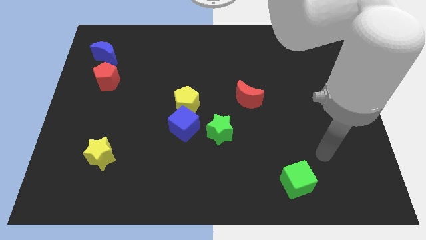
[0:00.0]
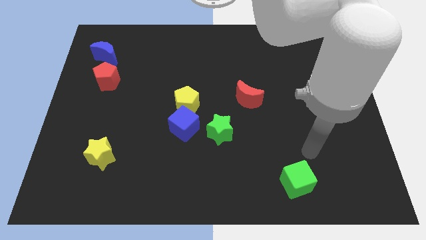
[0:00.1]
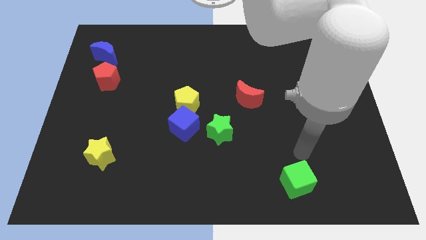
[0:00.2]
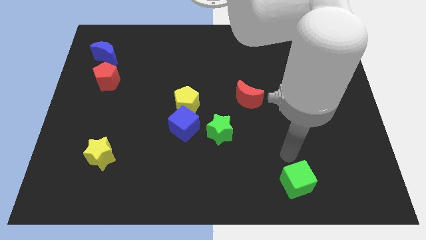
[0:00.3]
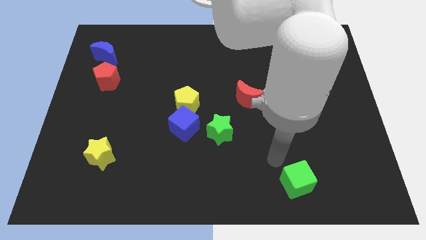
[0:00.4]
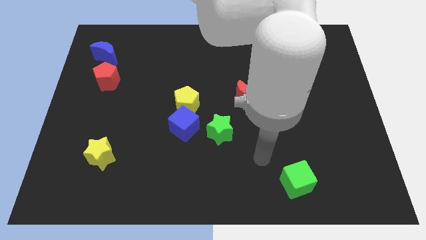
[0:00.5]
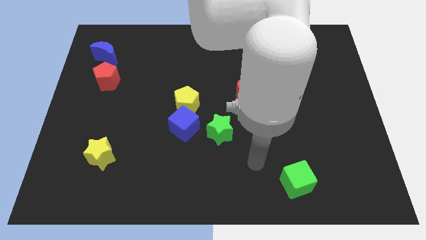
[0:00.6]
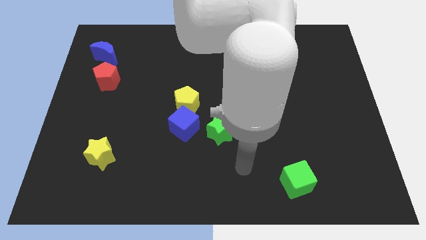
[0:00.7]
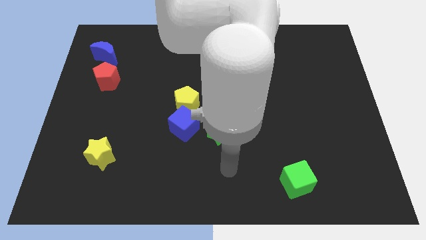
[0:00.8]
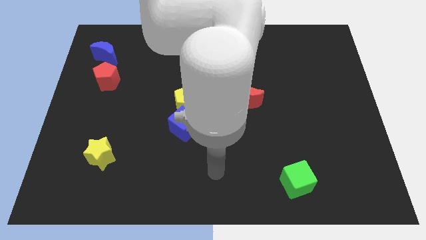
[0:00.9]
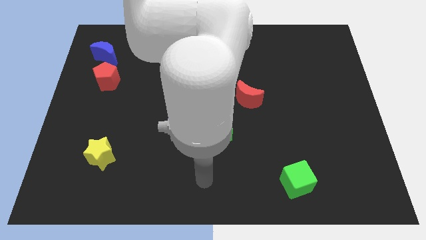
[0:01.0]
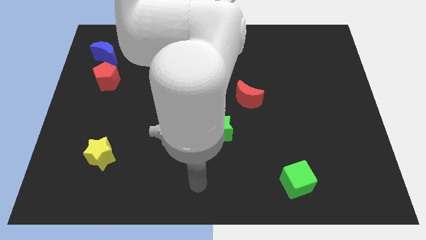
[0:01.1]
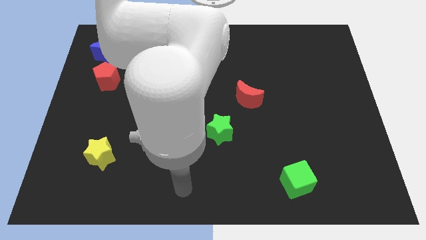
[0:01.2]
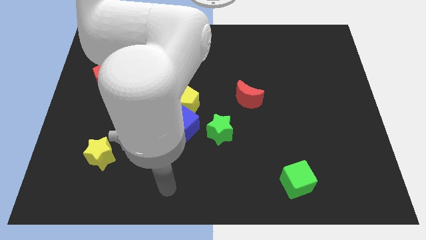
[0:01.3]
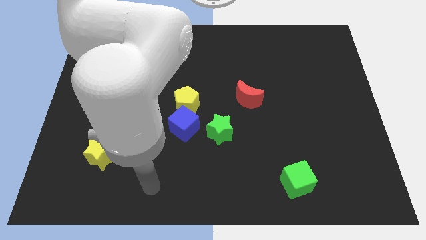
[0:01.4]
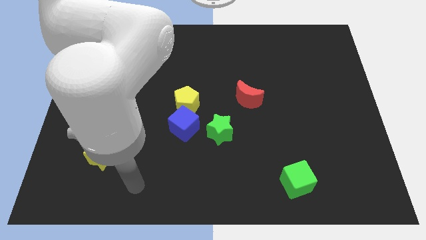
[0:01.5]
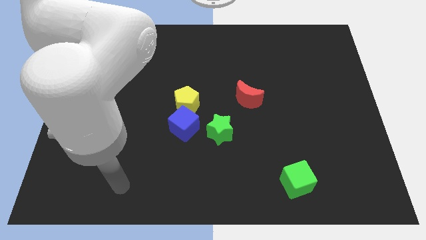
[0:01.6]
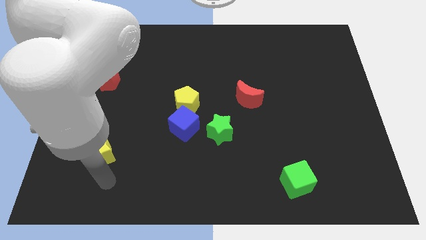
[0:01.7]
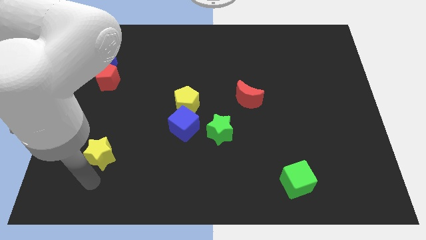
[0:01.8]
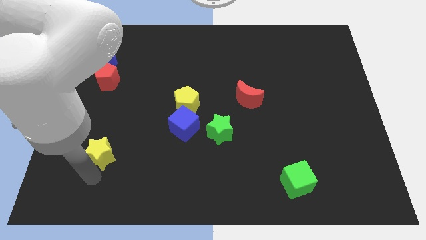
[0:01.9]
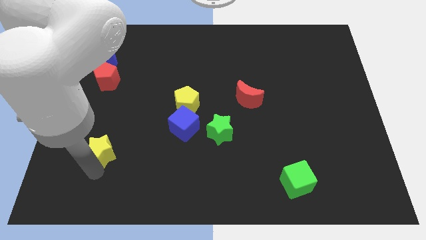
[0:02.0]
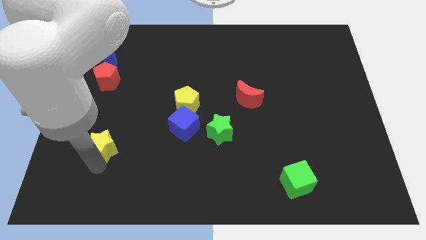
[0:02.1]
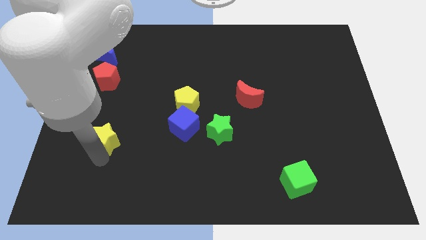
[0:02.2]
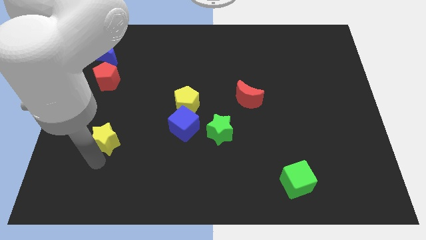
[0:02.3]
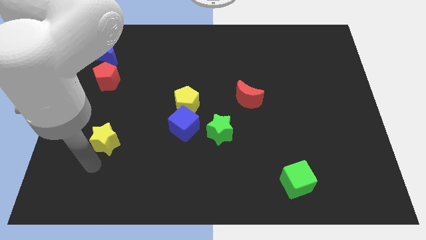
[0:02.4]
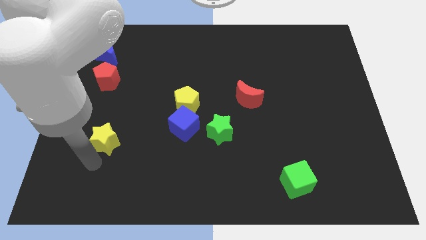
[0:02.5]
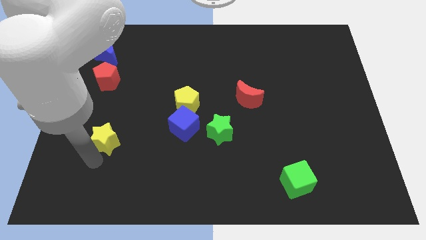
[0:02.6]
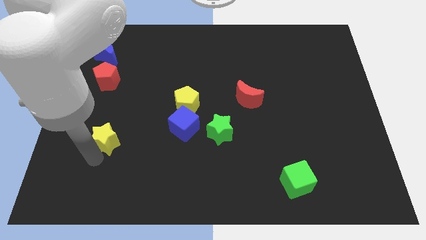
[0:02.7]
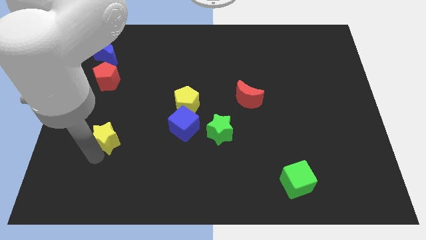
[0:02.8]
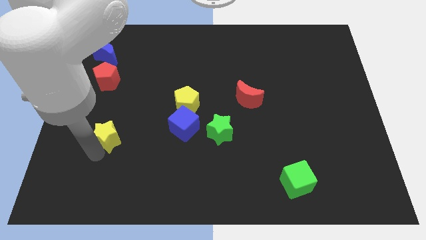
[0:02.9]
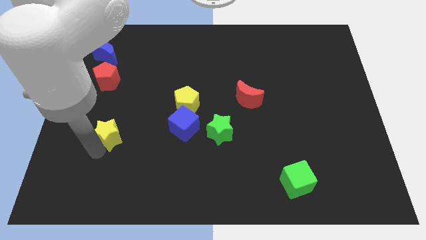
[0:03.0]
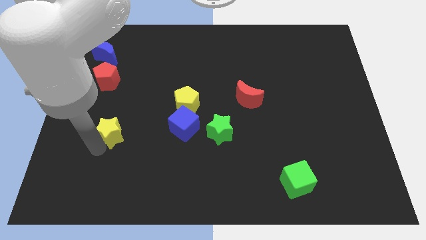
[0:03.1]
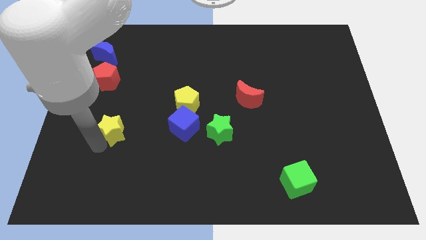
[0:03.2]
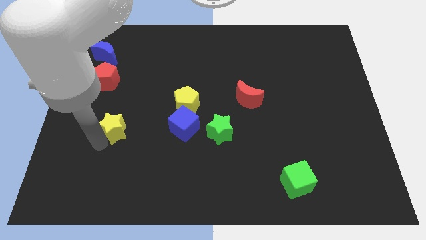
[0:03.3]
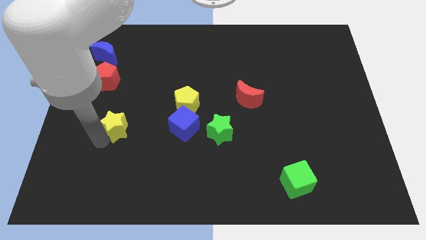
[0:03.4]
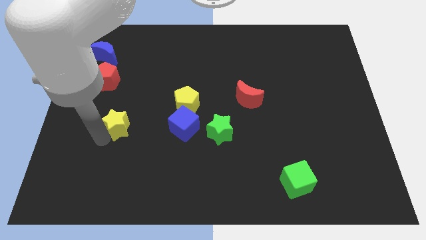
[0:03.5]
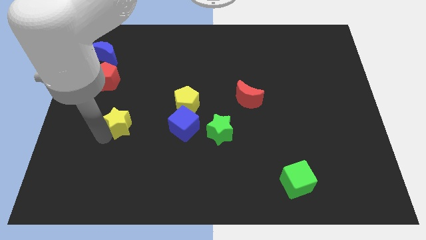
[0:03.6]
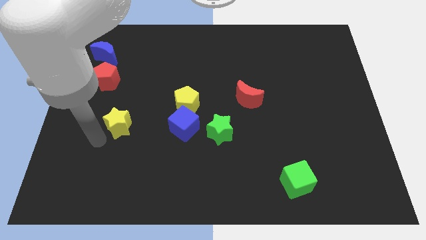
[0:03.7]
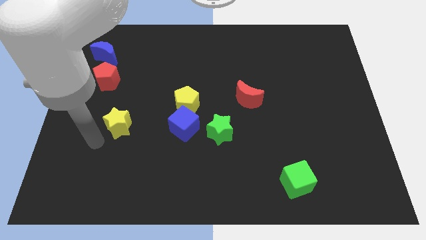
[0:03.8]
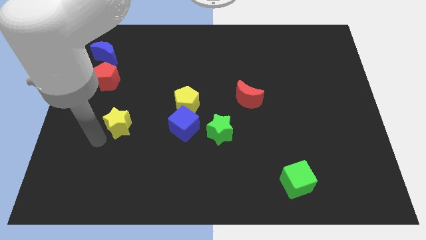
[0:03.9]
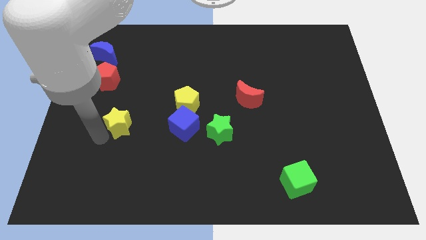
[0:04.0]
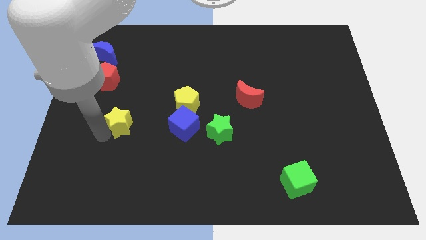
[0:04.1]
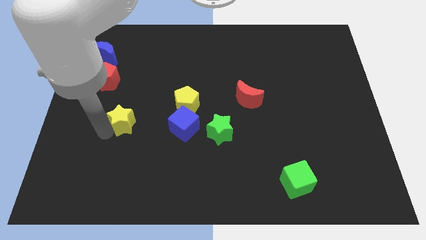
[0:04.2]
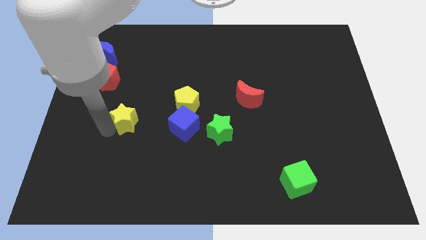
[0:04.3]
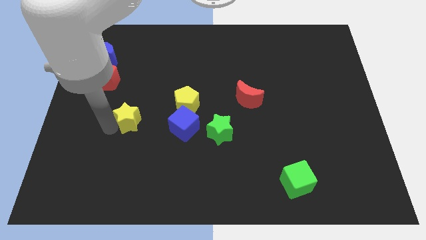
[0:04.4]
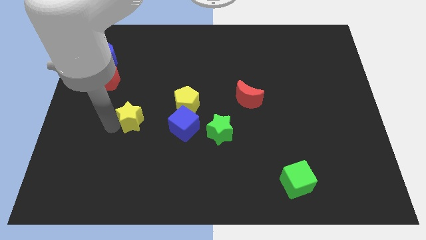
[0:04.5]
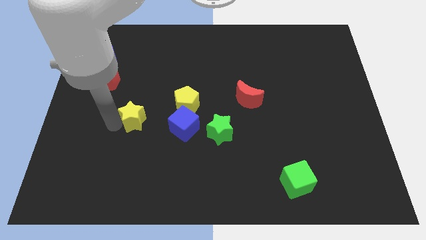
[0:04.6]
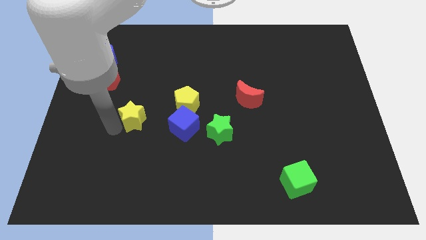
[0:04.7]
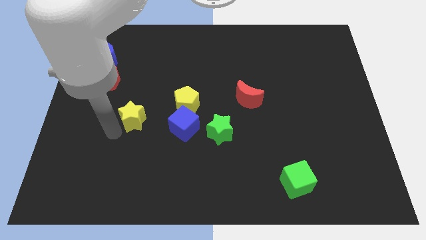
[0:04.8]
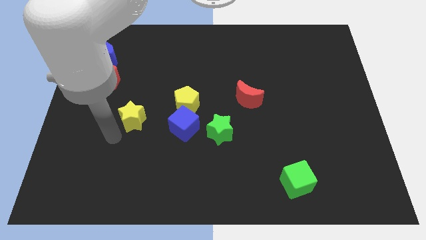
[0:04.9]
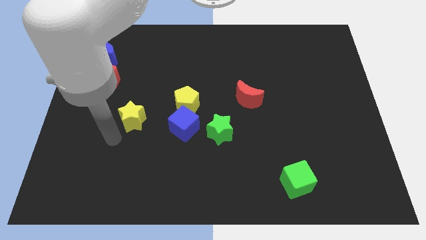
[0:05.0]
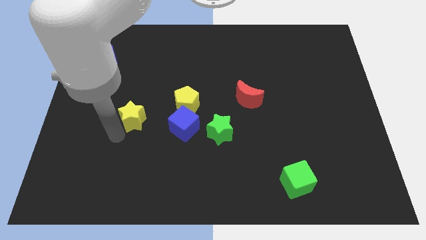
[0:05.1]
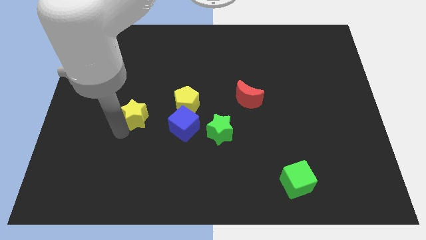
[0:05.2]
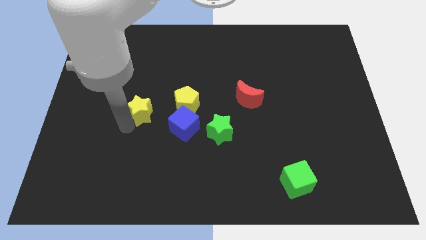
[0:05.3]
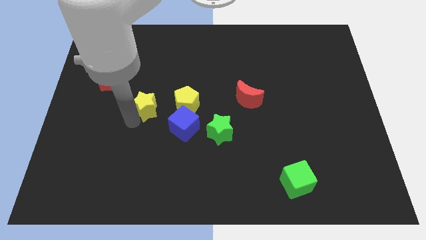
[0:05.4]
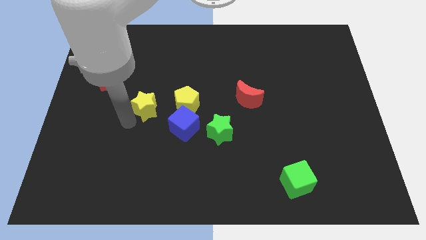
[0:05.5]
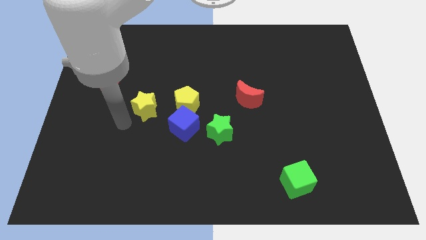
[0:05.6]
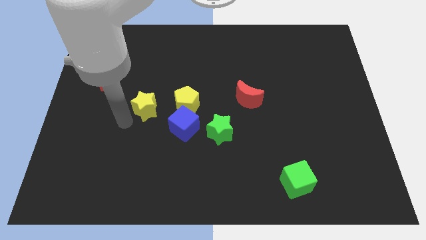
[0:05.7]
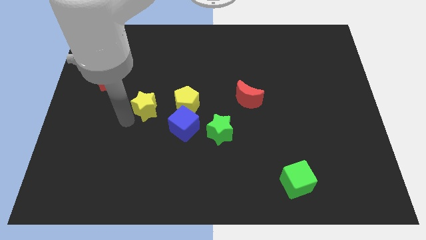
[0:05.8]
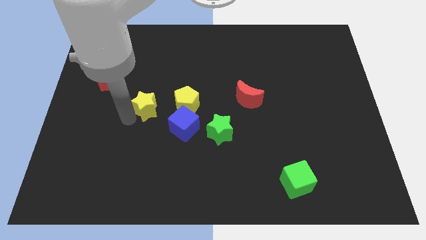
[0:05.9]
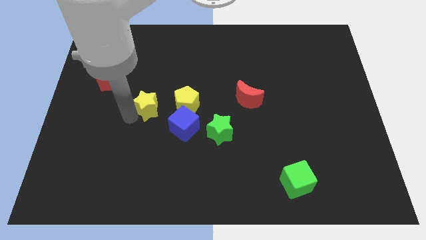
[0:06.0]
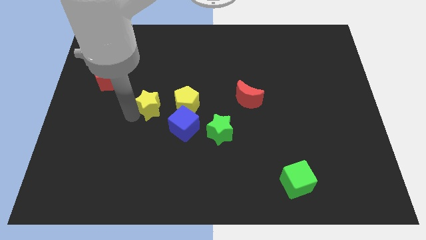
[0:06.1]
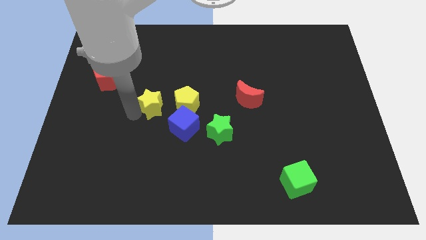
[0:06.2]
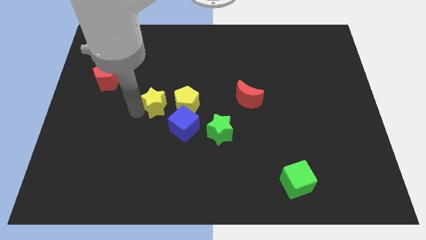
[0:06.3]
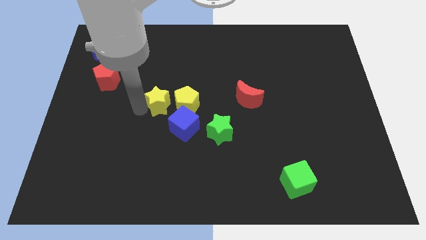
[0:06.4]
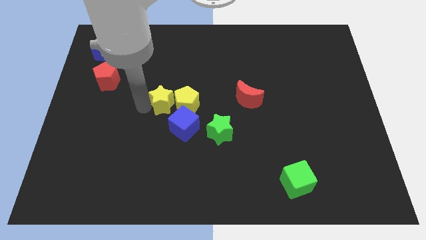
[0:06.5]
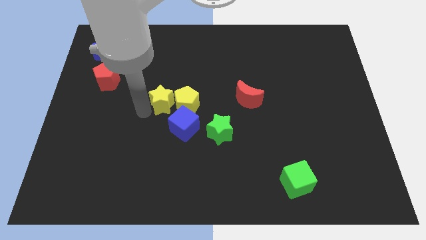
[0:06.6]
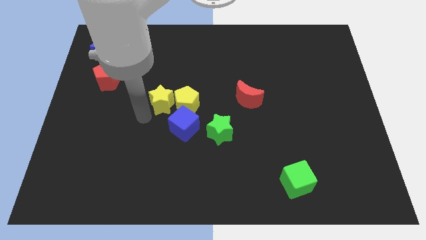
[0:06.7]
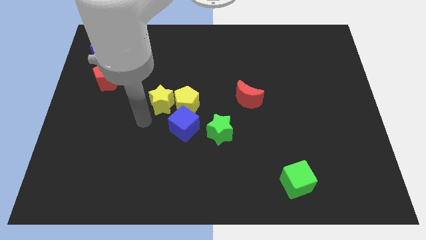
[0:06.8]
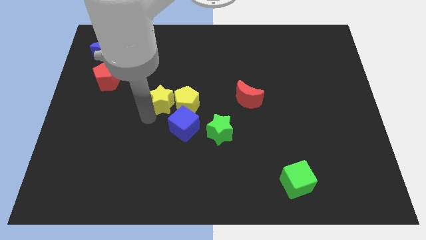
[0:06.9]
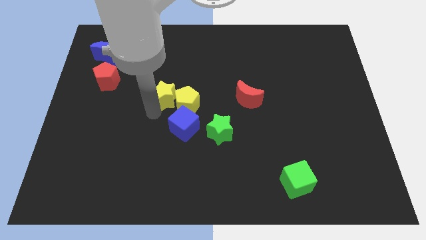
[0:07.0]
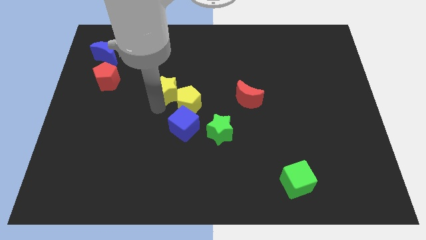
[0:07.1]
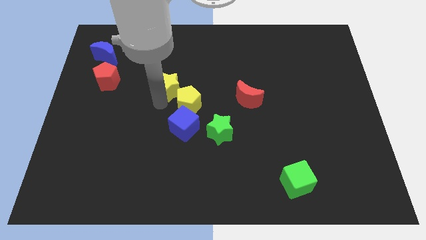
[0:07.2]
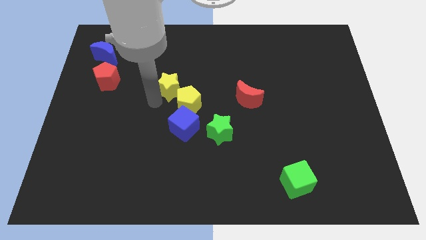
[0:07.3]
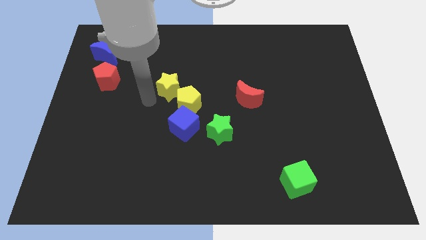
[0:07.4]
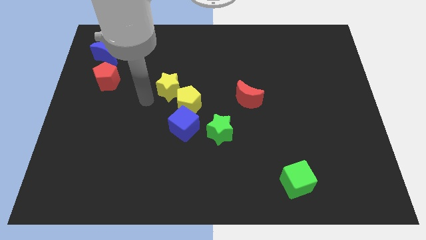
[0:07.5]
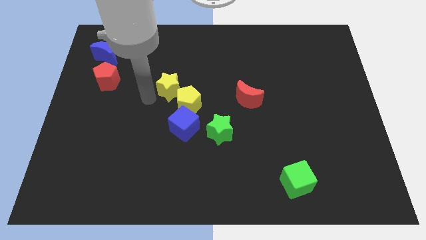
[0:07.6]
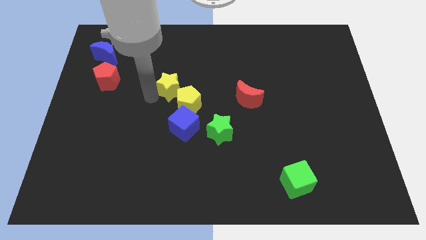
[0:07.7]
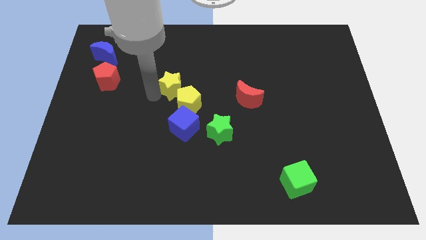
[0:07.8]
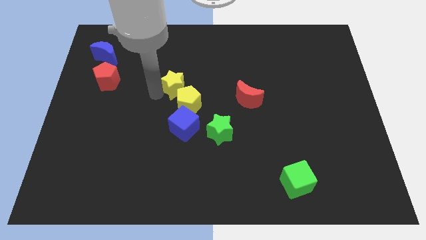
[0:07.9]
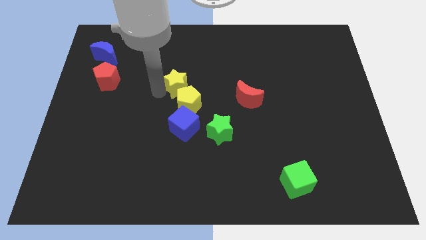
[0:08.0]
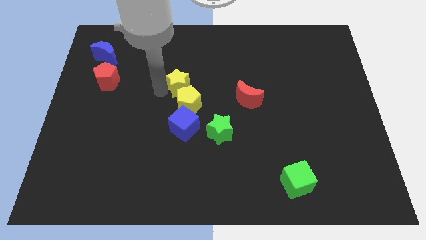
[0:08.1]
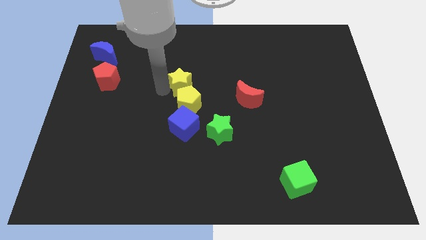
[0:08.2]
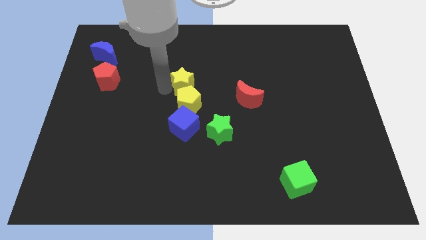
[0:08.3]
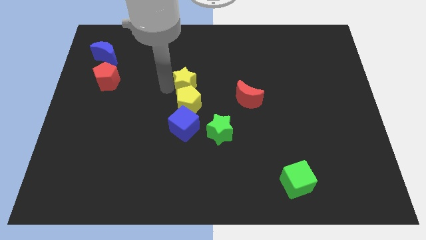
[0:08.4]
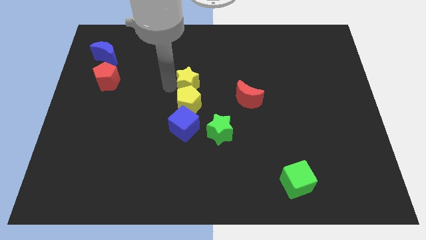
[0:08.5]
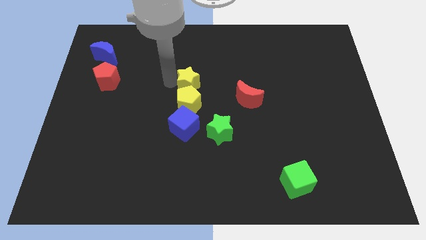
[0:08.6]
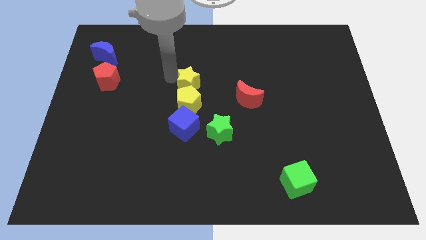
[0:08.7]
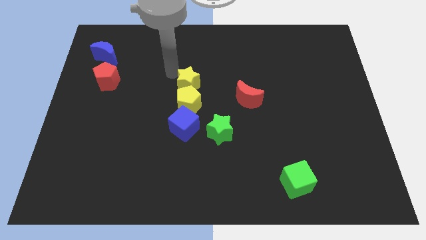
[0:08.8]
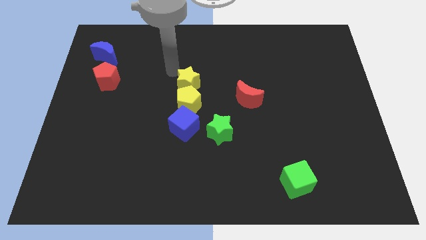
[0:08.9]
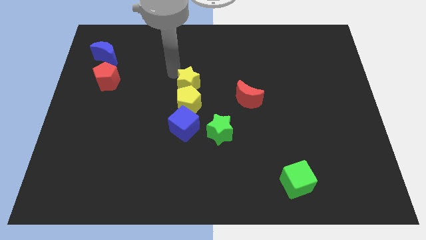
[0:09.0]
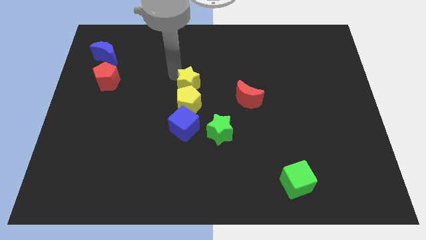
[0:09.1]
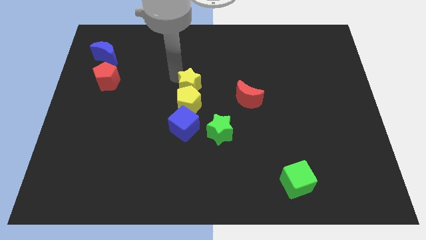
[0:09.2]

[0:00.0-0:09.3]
slide the yellow star to the left of the red moon
